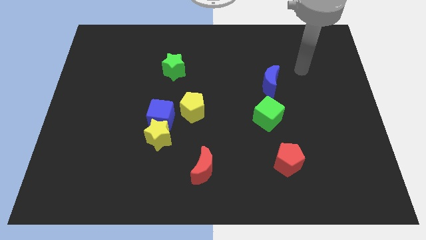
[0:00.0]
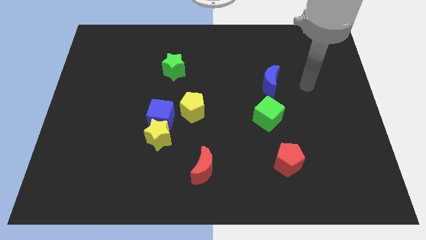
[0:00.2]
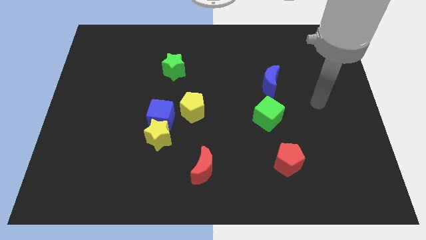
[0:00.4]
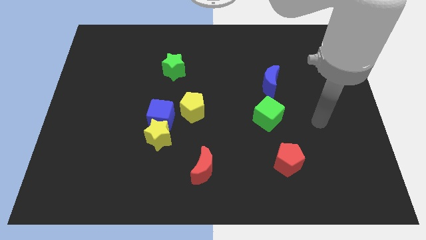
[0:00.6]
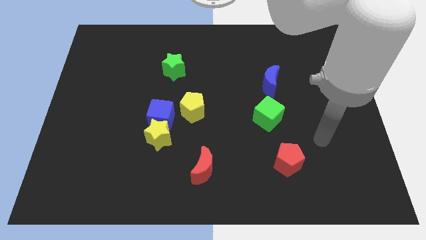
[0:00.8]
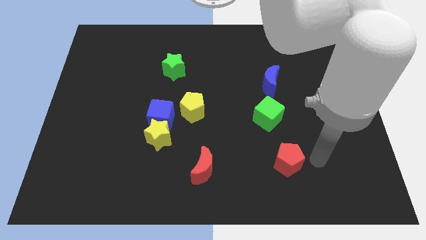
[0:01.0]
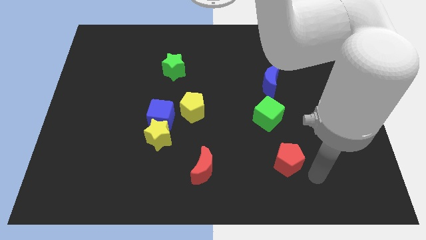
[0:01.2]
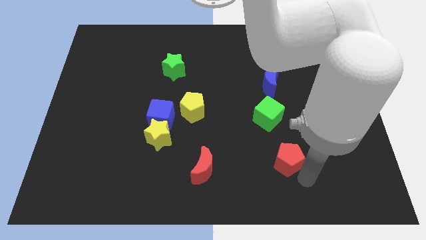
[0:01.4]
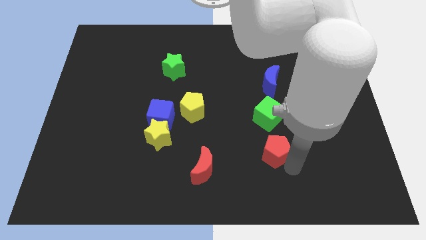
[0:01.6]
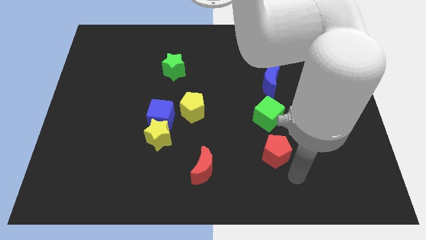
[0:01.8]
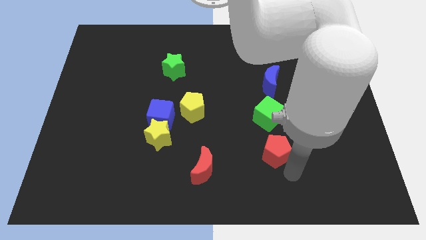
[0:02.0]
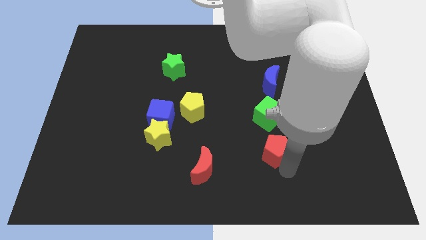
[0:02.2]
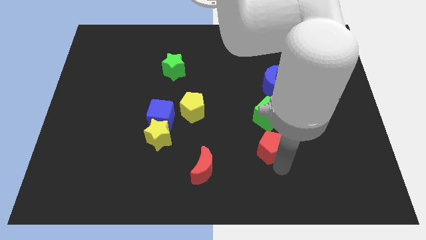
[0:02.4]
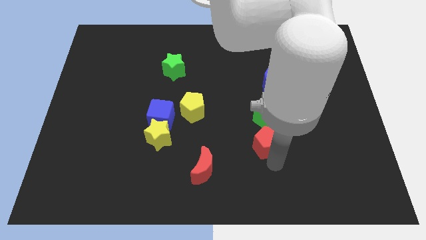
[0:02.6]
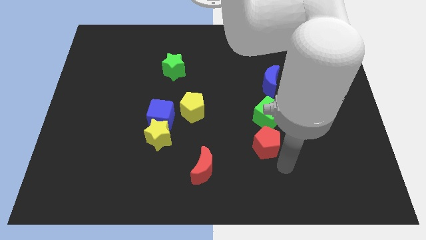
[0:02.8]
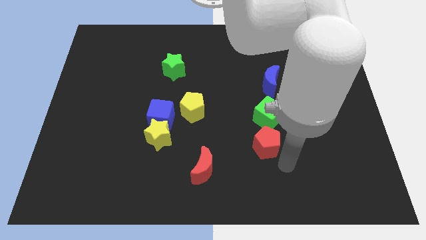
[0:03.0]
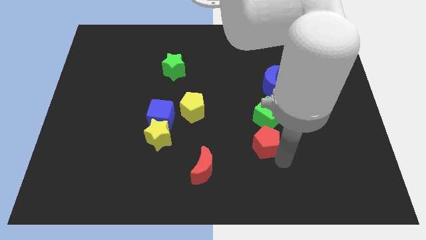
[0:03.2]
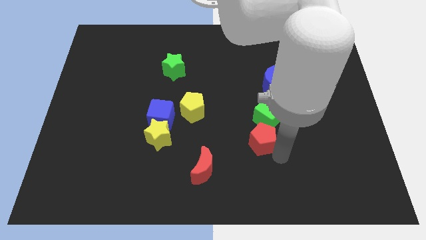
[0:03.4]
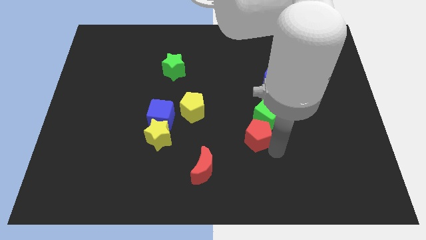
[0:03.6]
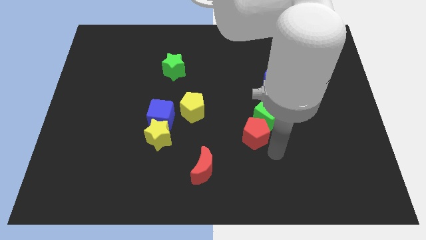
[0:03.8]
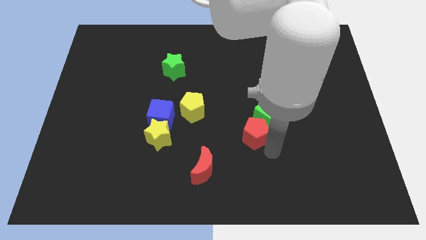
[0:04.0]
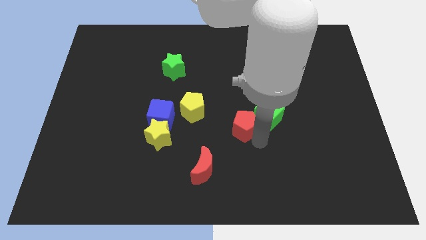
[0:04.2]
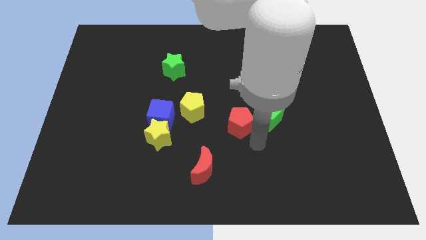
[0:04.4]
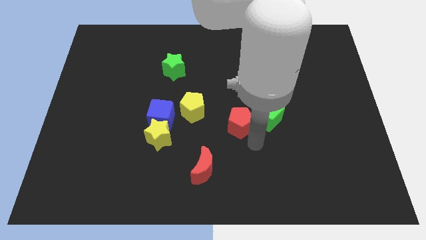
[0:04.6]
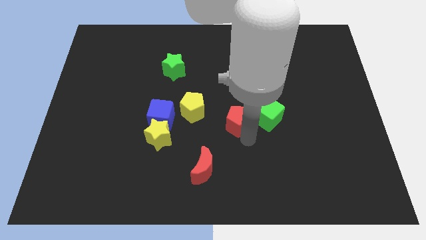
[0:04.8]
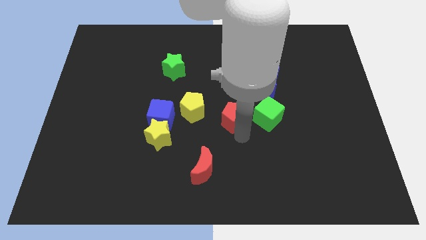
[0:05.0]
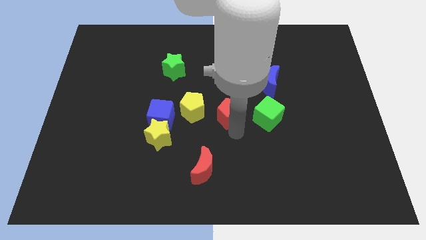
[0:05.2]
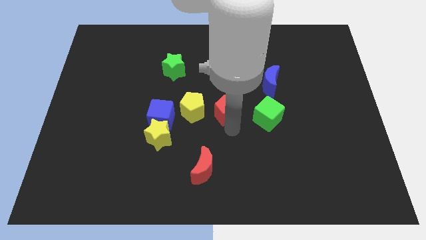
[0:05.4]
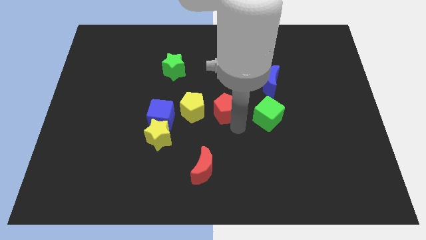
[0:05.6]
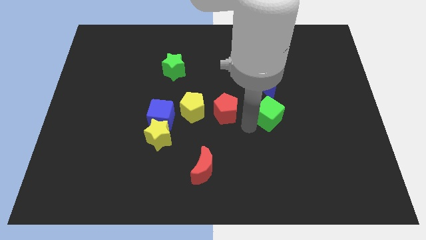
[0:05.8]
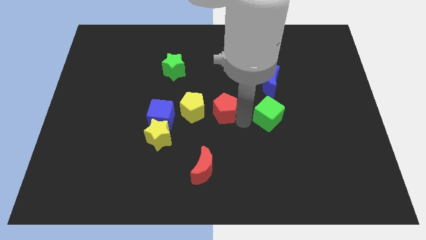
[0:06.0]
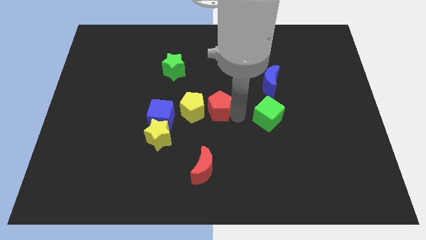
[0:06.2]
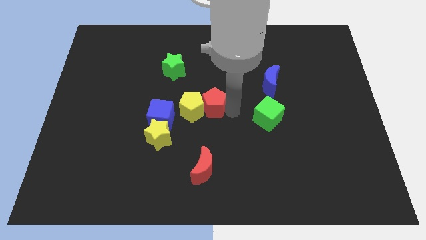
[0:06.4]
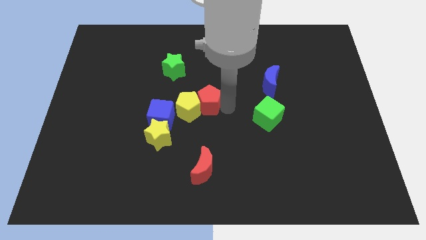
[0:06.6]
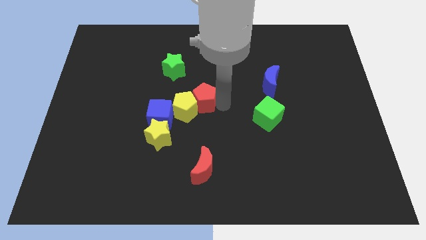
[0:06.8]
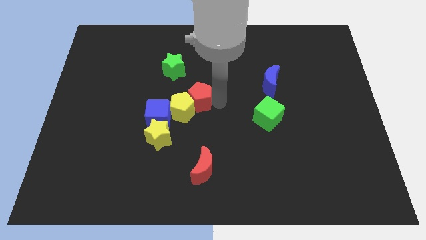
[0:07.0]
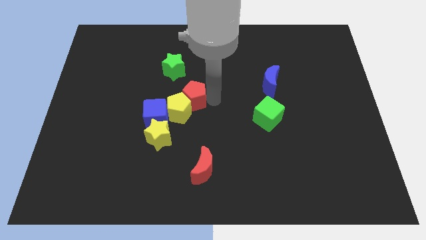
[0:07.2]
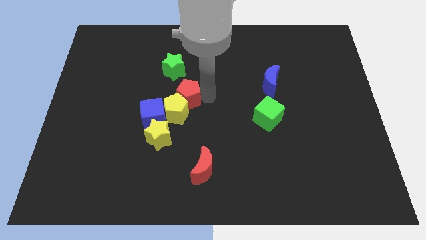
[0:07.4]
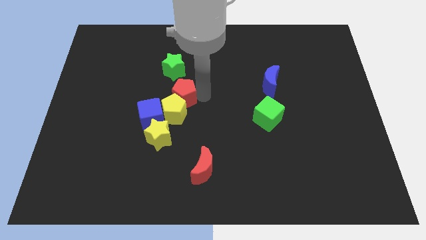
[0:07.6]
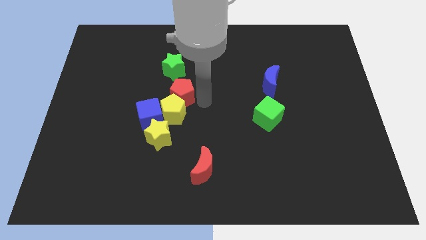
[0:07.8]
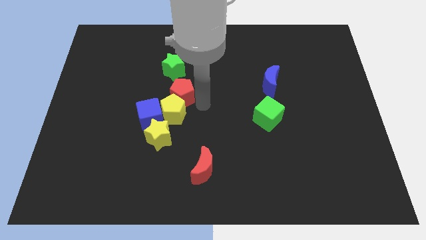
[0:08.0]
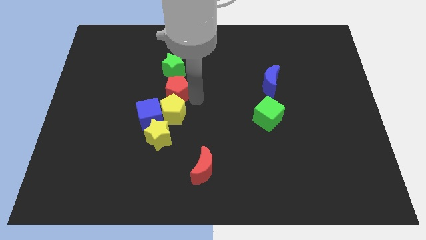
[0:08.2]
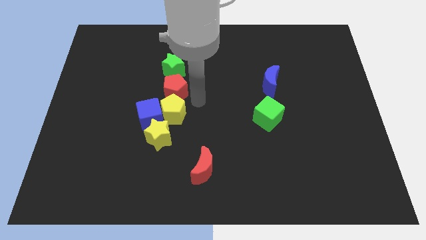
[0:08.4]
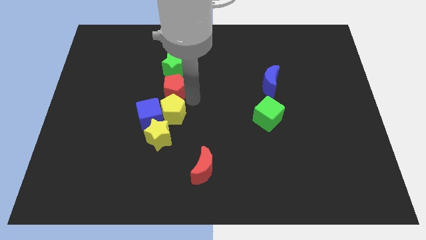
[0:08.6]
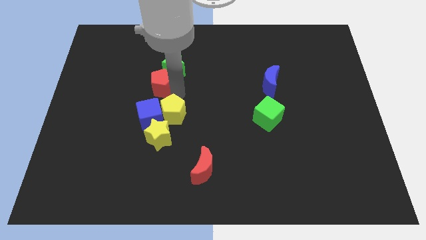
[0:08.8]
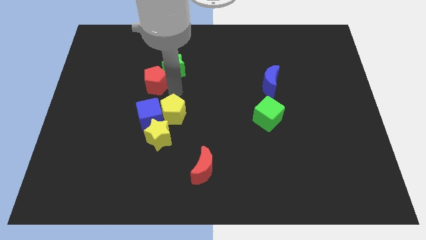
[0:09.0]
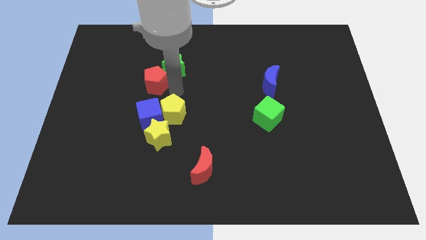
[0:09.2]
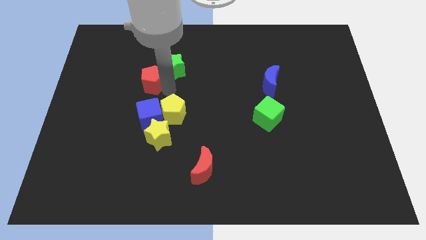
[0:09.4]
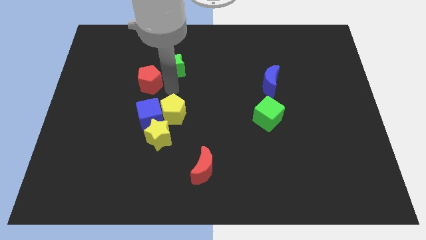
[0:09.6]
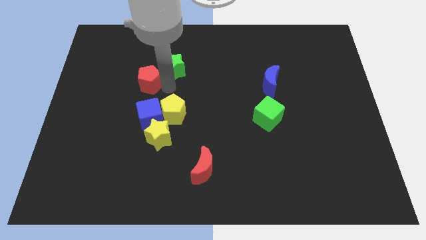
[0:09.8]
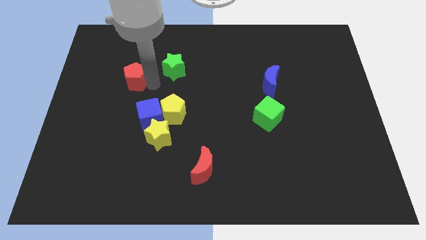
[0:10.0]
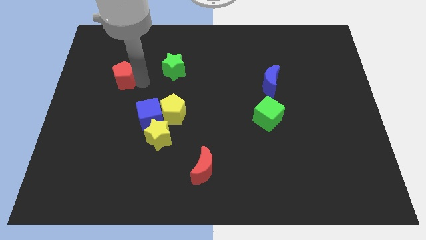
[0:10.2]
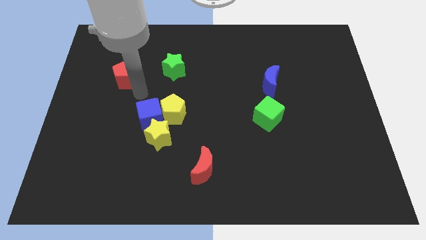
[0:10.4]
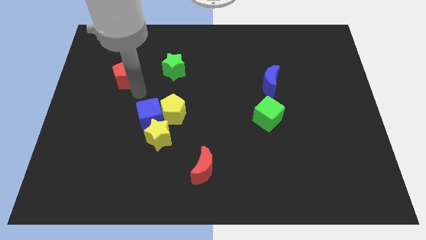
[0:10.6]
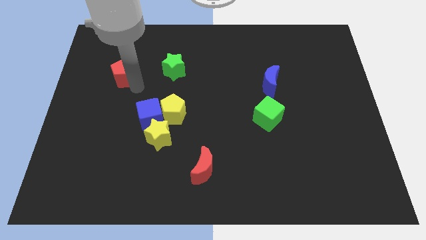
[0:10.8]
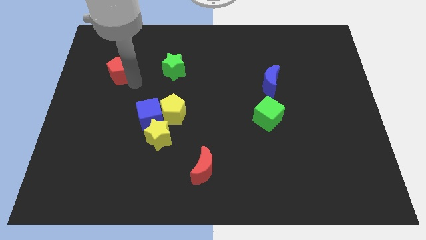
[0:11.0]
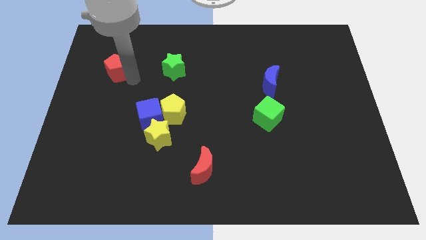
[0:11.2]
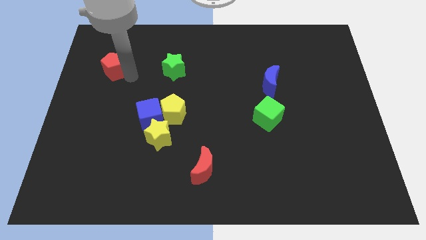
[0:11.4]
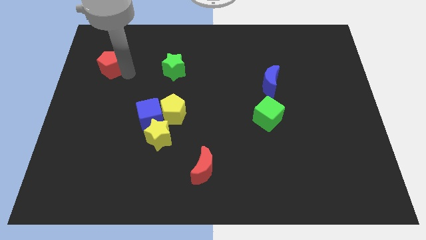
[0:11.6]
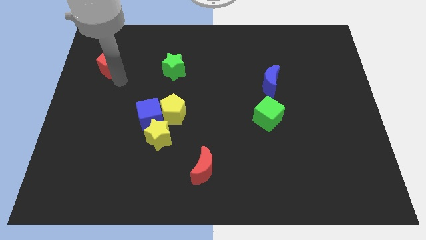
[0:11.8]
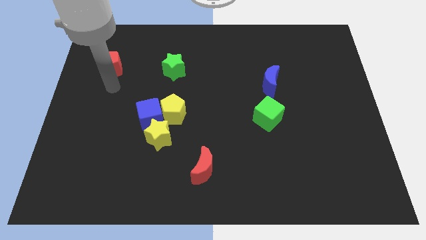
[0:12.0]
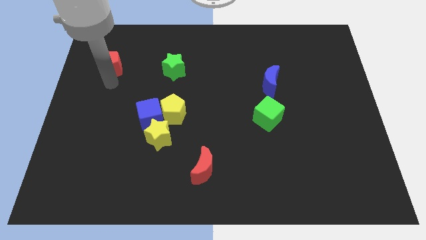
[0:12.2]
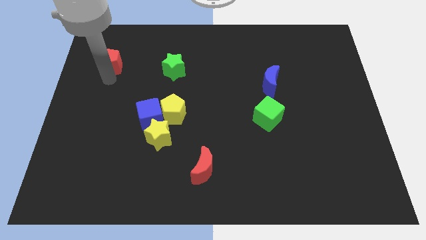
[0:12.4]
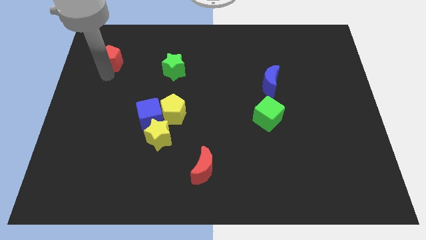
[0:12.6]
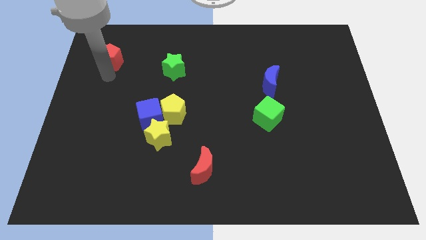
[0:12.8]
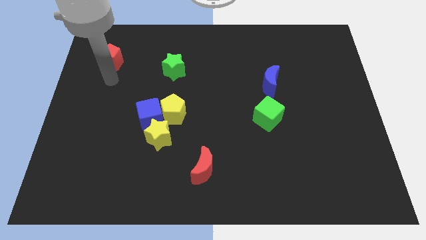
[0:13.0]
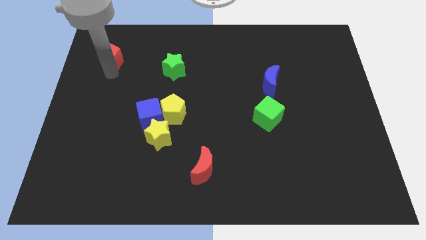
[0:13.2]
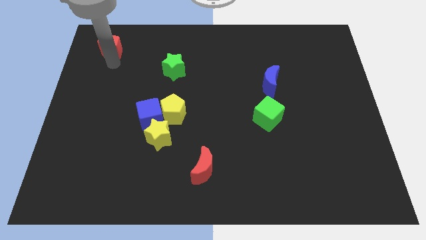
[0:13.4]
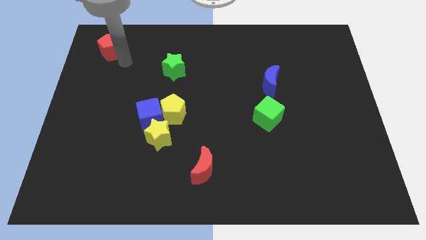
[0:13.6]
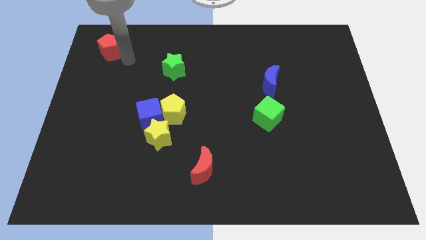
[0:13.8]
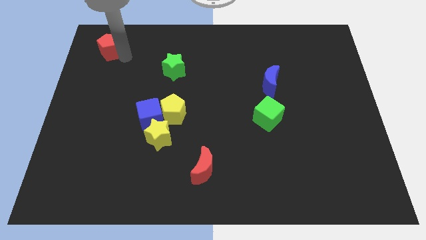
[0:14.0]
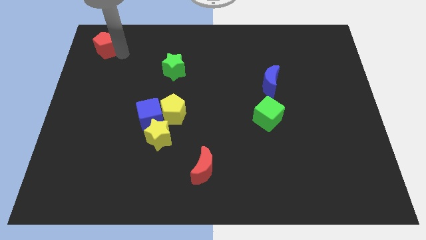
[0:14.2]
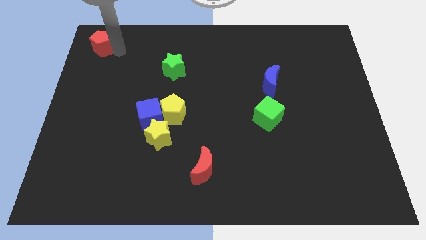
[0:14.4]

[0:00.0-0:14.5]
put the red pentagon to the top left corner
